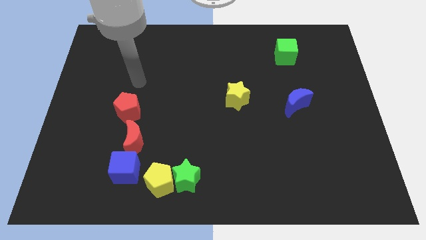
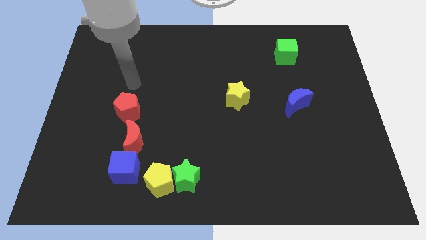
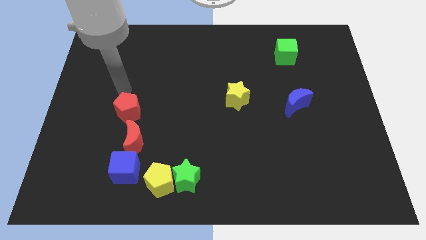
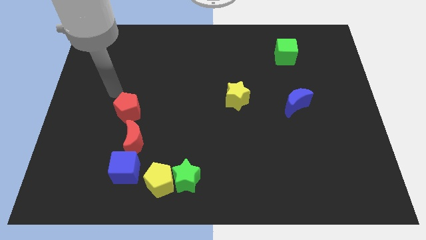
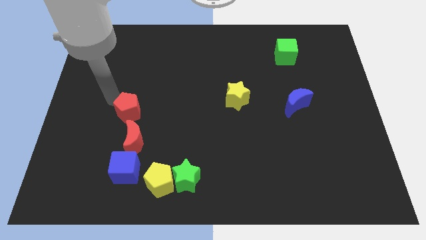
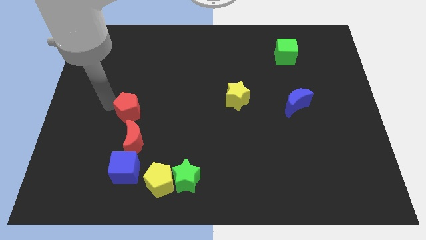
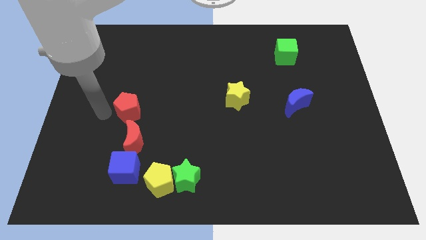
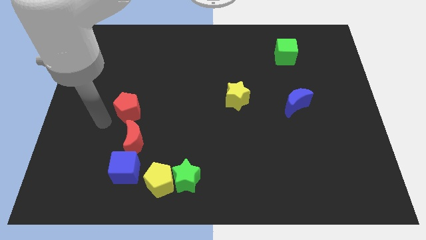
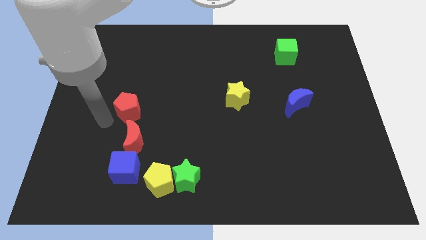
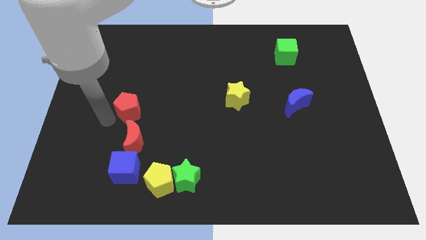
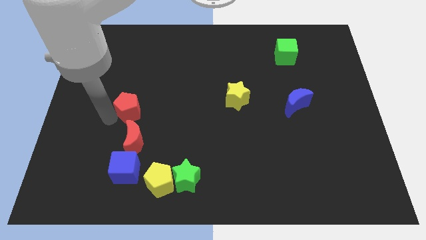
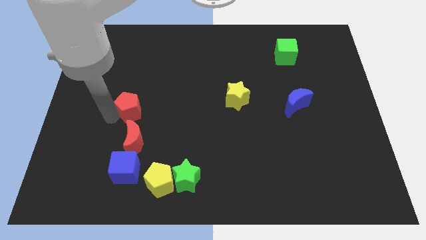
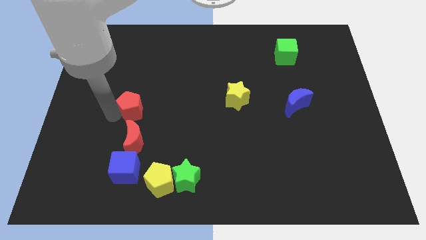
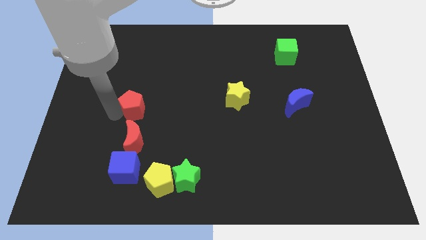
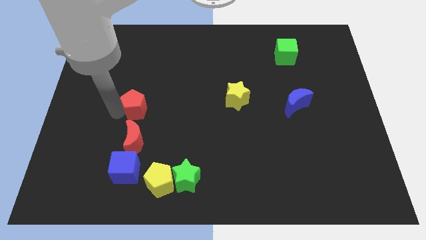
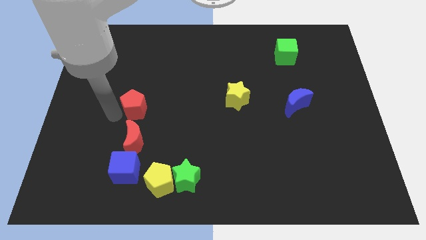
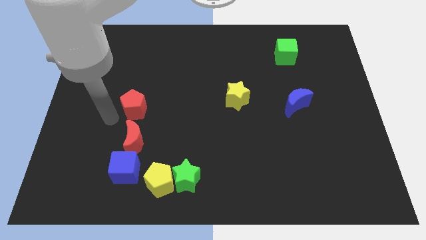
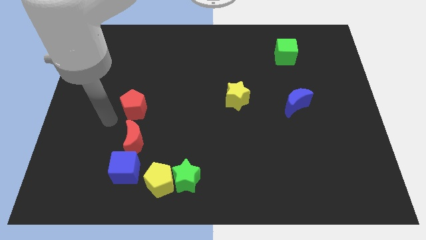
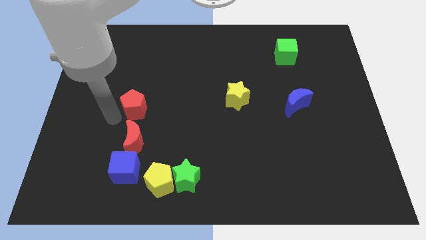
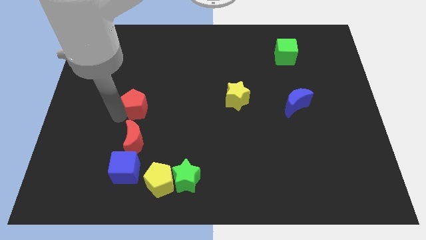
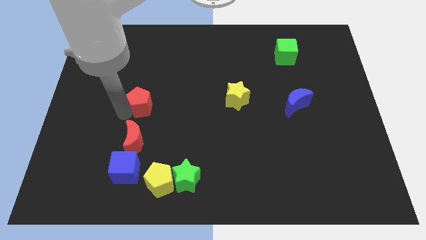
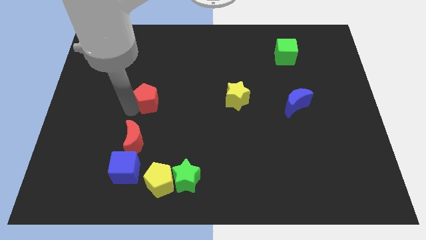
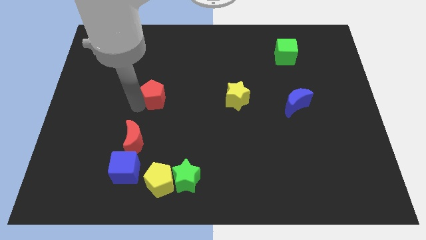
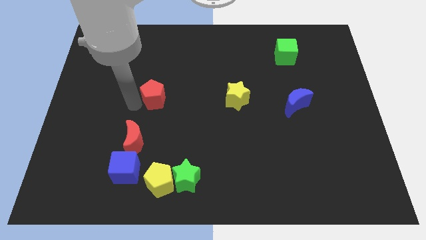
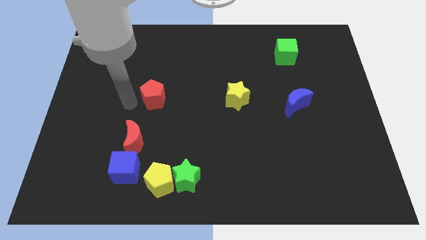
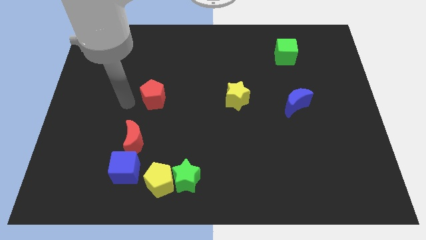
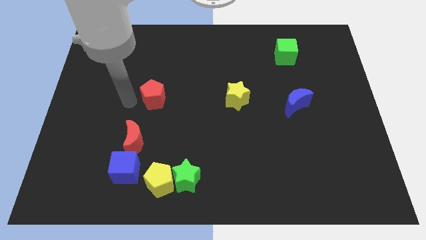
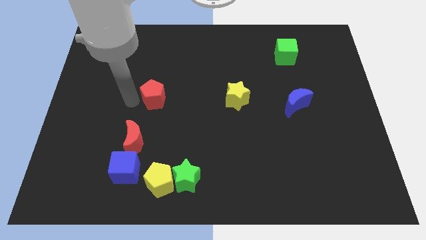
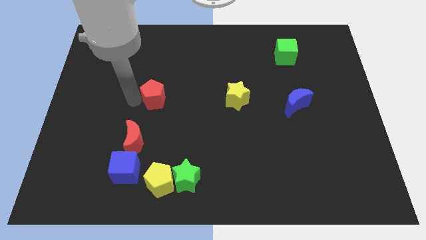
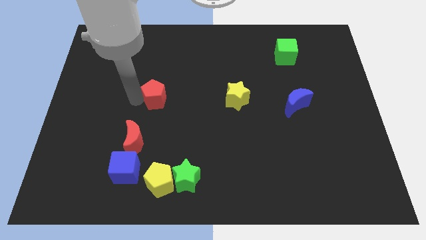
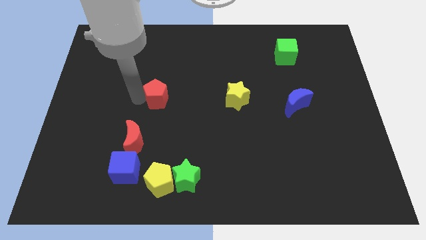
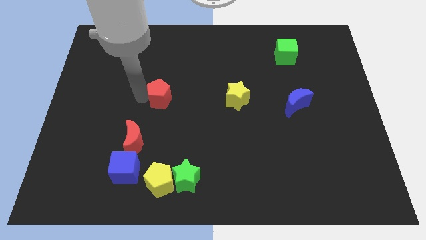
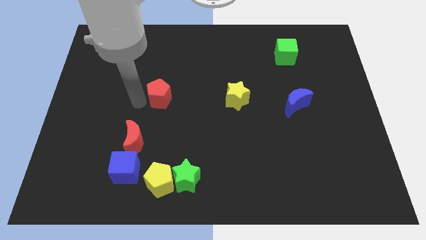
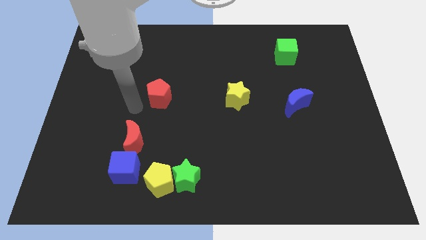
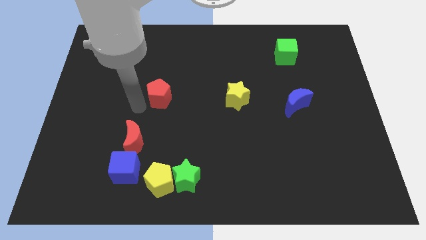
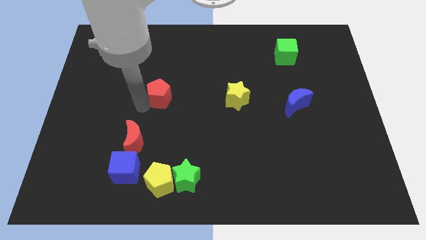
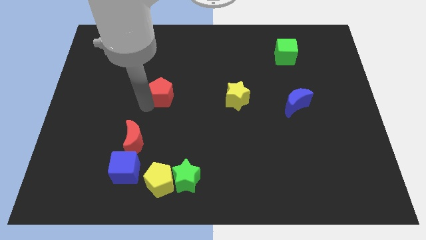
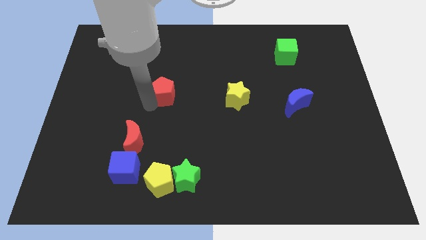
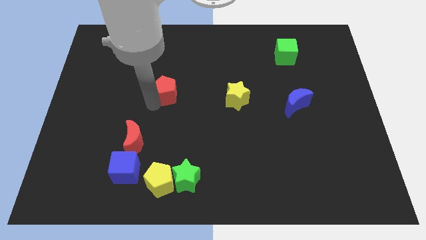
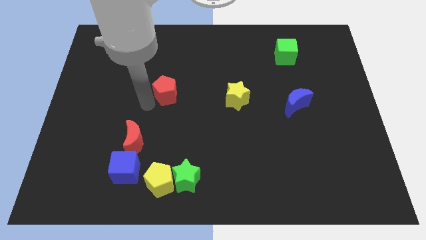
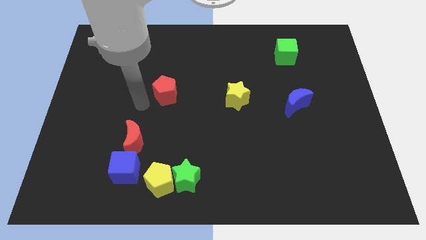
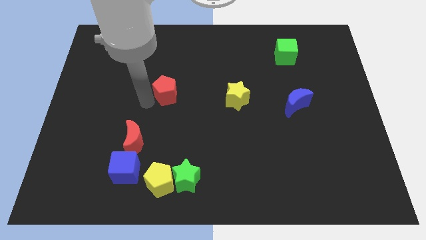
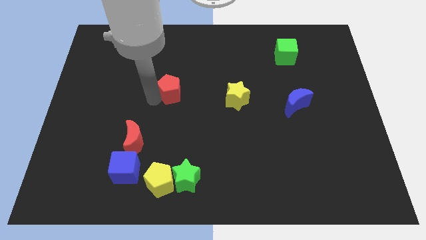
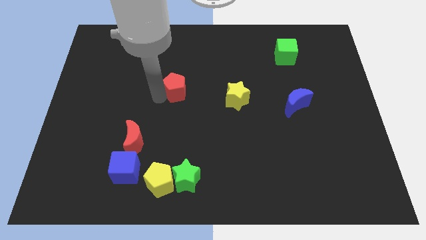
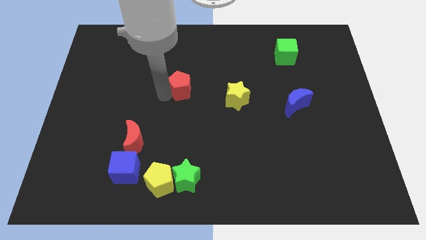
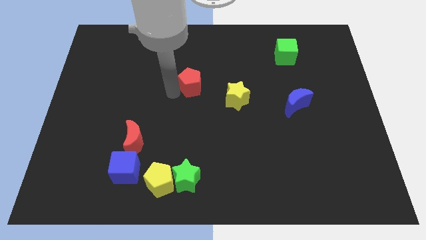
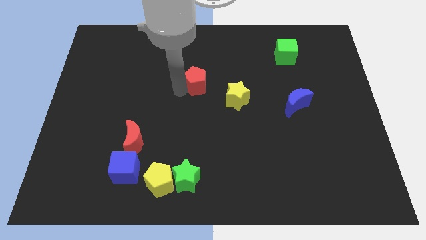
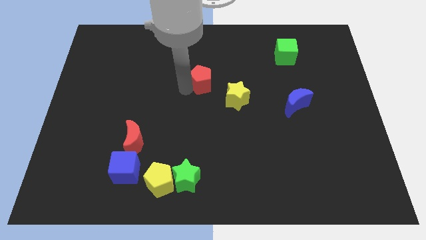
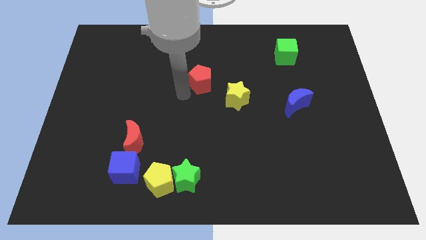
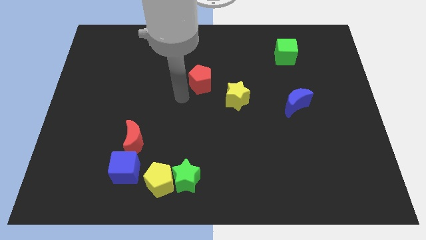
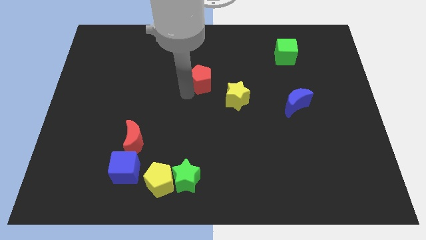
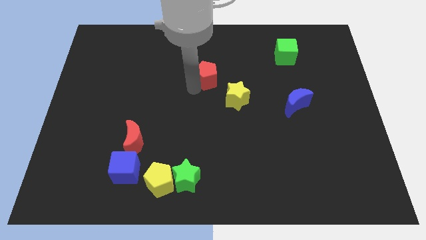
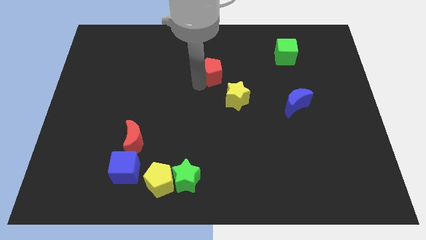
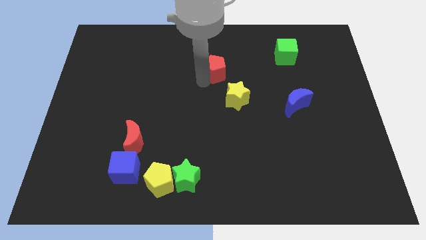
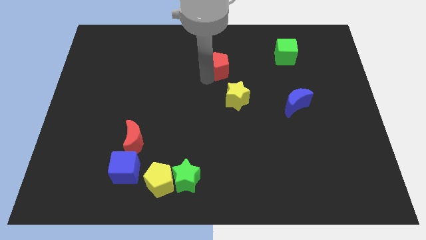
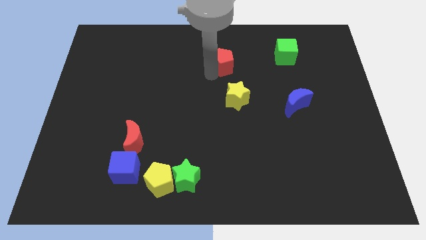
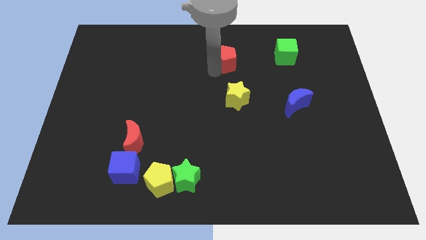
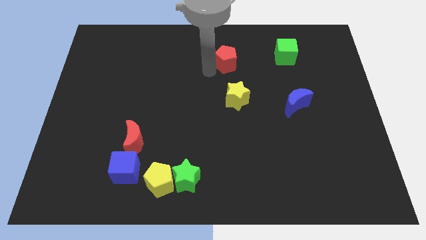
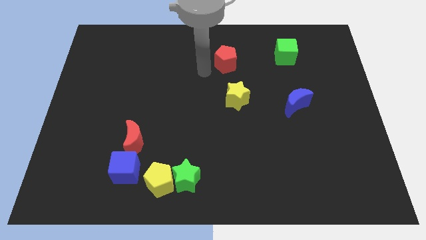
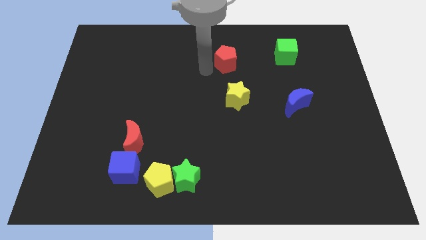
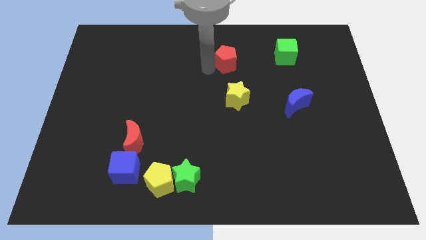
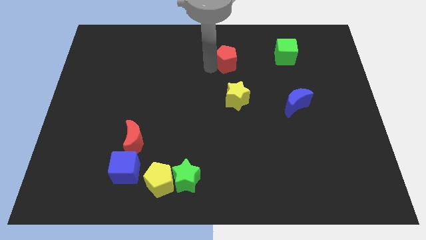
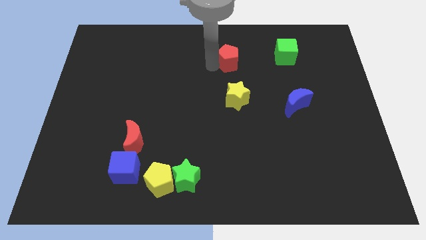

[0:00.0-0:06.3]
push the red pentagon just left of the green cube

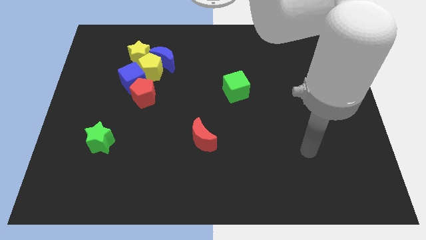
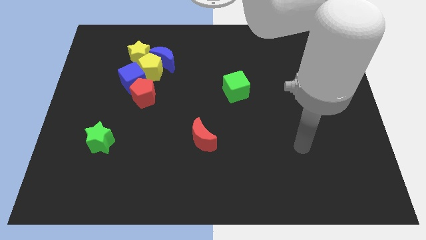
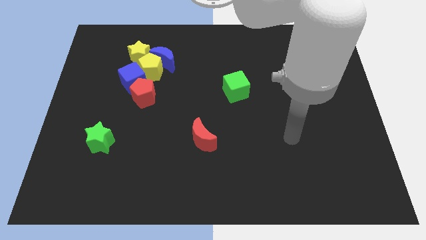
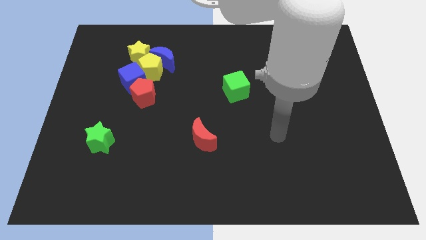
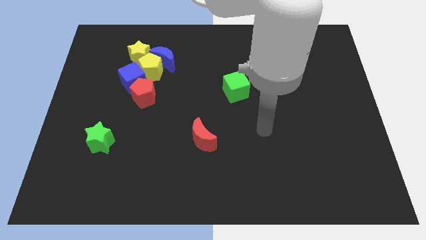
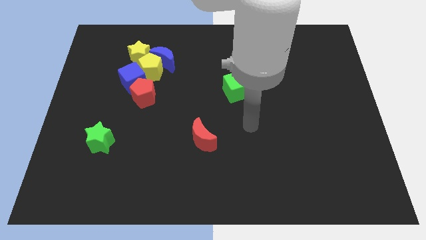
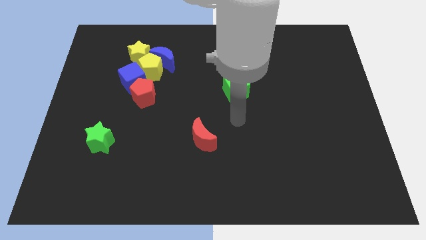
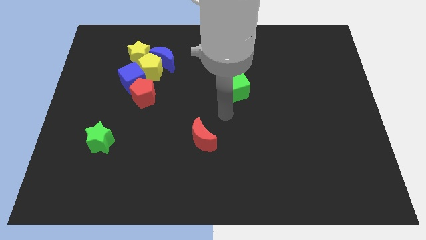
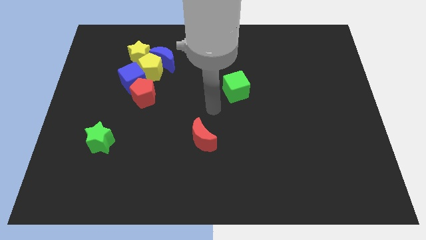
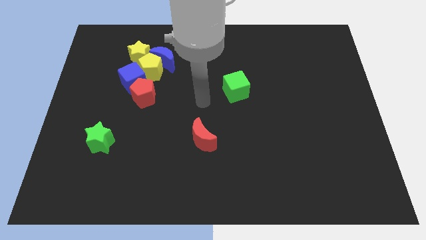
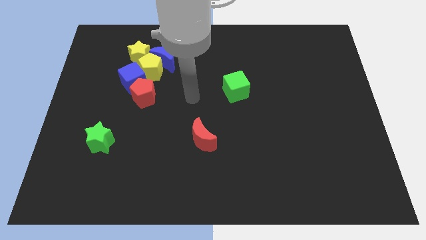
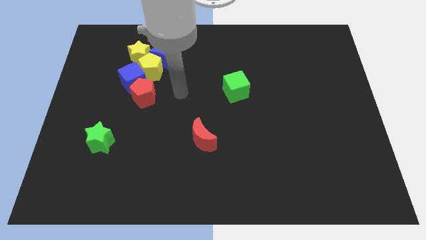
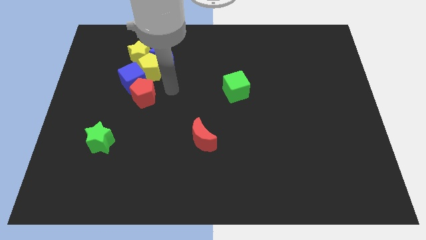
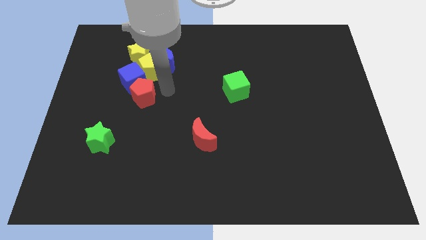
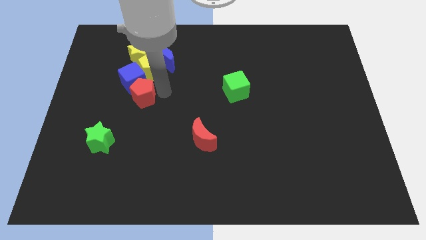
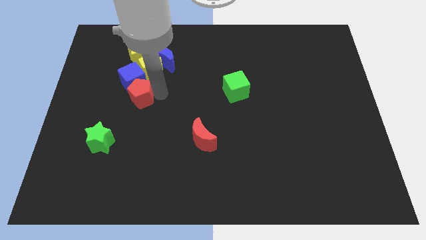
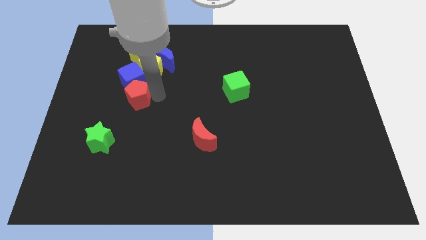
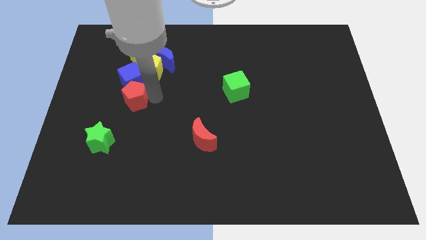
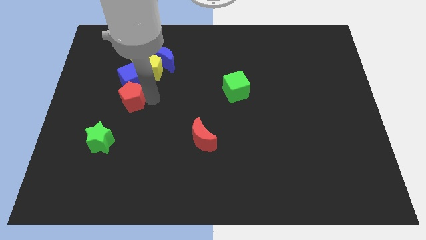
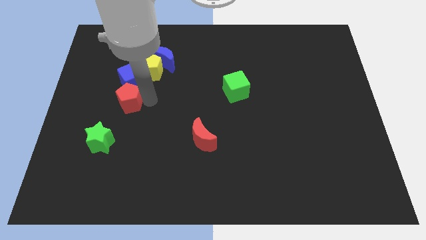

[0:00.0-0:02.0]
slide the red pentagon above the green star
